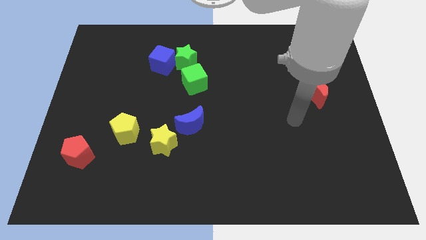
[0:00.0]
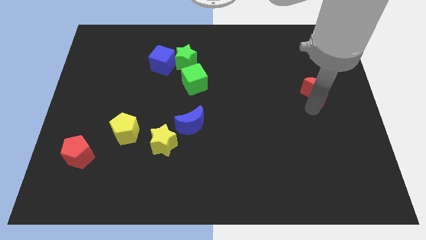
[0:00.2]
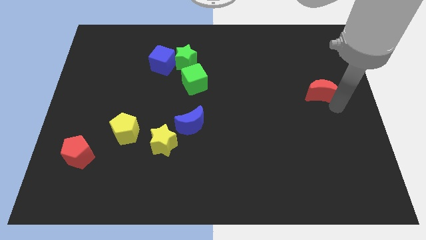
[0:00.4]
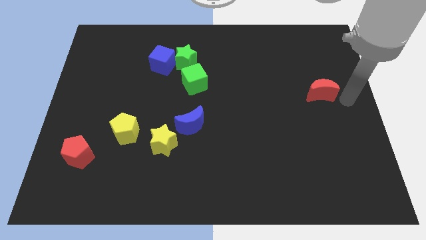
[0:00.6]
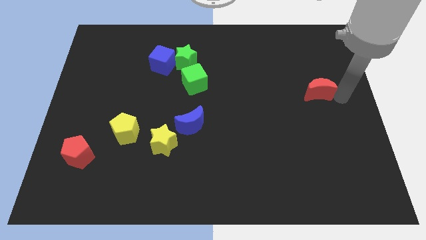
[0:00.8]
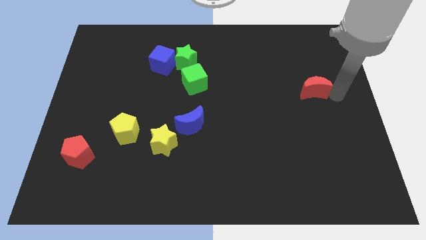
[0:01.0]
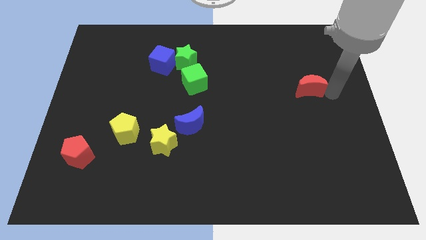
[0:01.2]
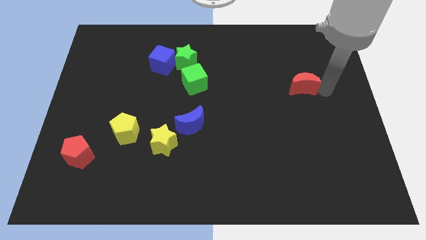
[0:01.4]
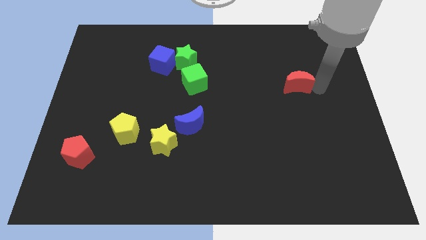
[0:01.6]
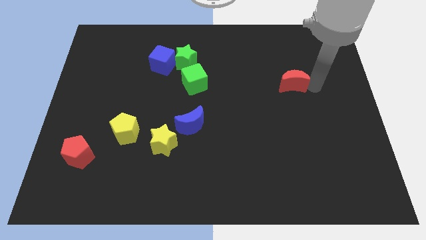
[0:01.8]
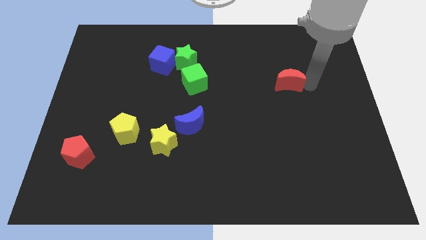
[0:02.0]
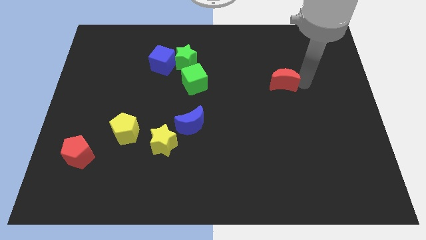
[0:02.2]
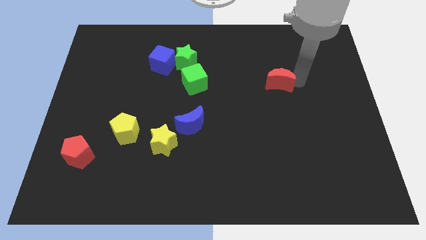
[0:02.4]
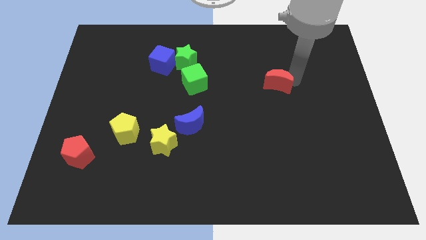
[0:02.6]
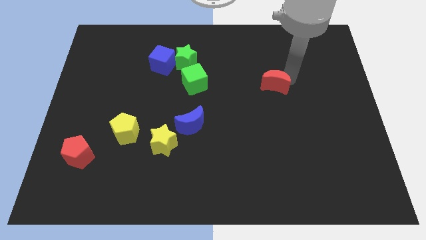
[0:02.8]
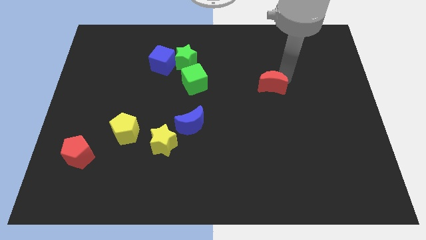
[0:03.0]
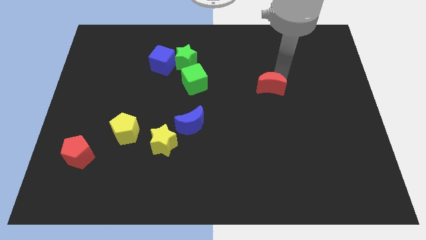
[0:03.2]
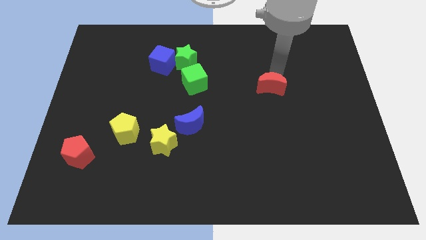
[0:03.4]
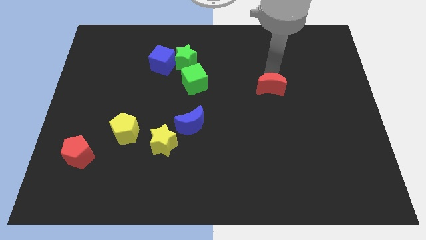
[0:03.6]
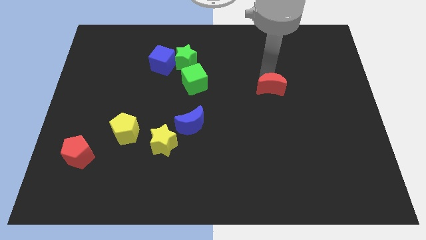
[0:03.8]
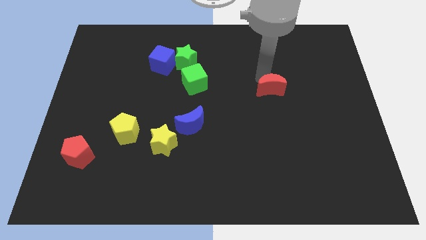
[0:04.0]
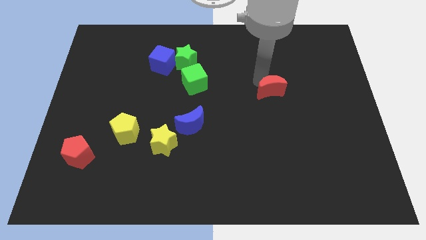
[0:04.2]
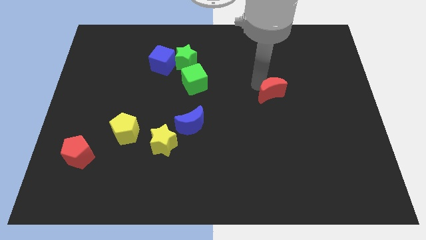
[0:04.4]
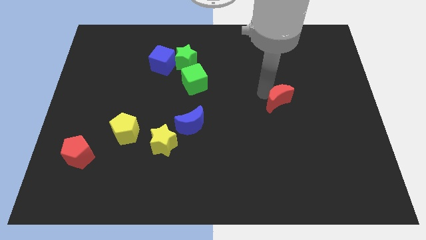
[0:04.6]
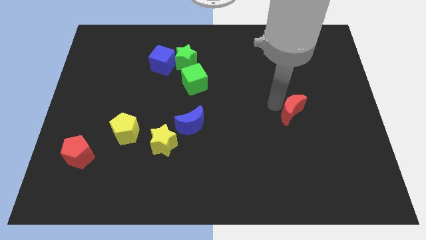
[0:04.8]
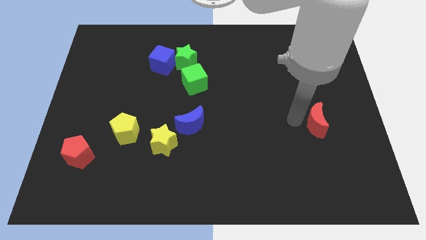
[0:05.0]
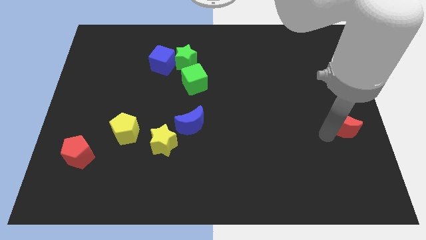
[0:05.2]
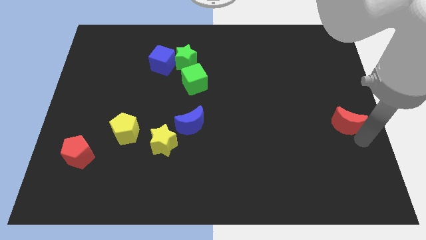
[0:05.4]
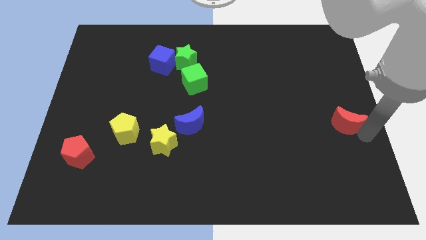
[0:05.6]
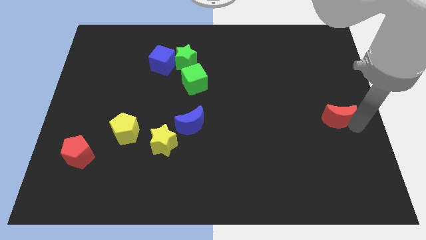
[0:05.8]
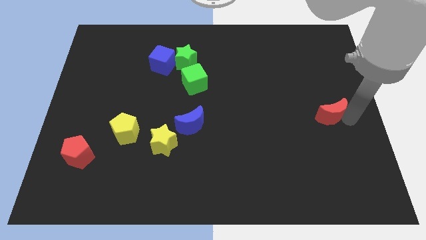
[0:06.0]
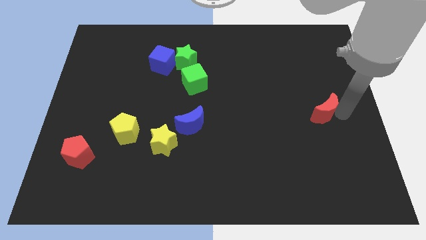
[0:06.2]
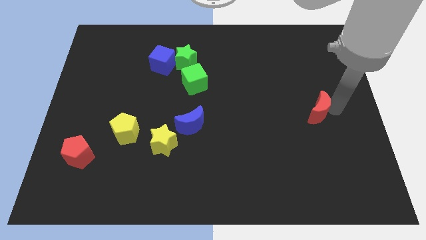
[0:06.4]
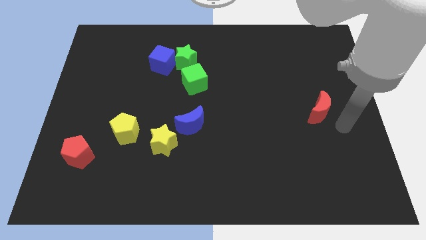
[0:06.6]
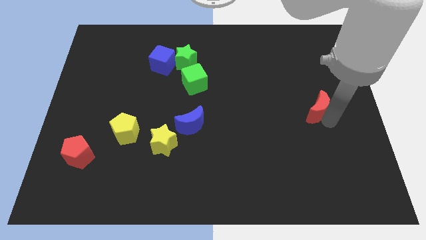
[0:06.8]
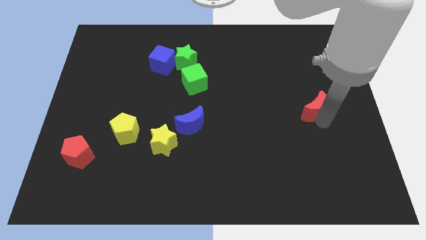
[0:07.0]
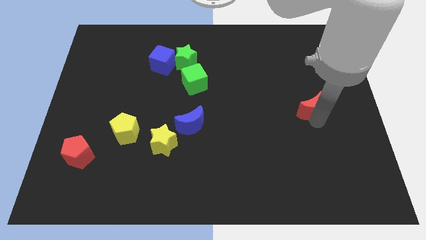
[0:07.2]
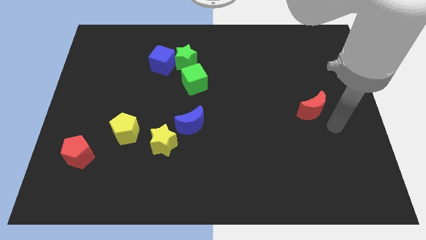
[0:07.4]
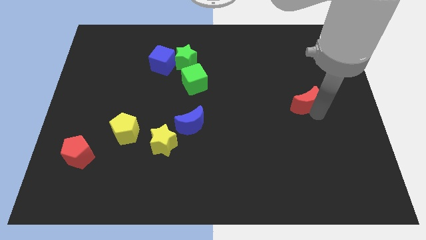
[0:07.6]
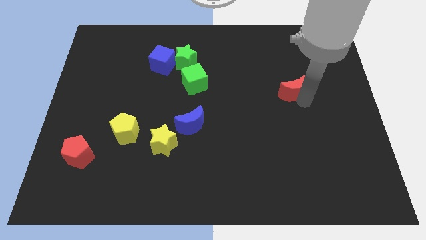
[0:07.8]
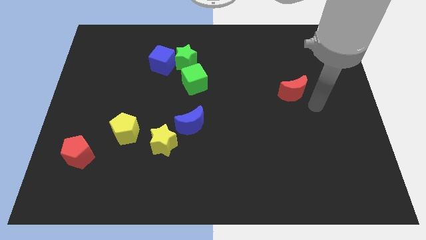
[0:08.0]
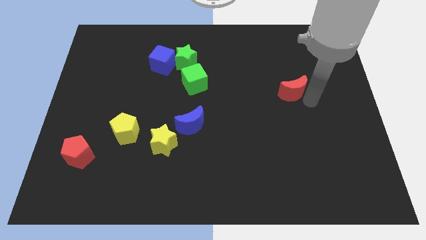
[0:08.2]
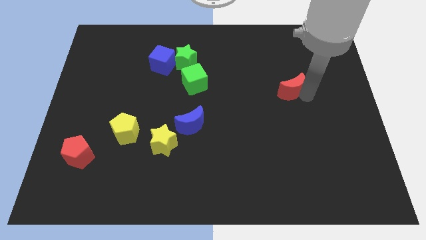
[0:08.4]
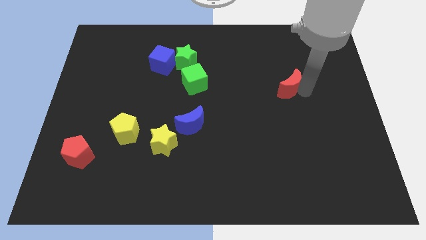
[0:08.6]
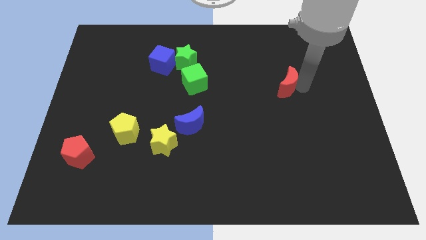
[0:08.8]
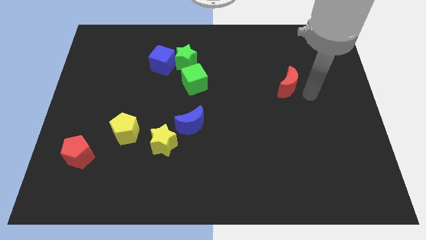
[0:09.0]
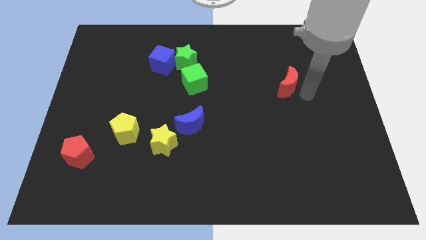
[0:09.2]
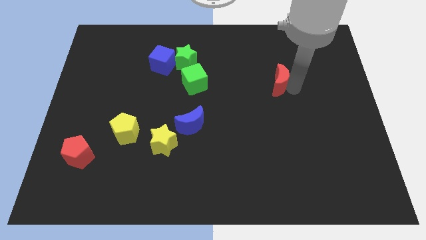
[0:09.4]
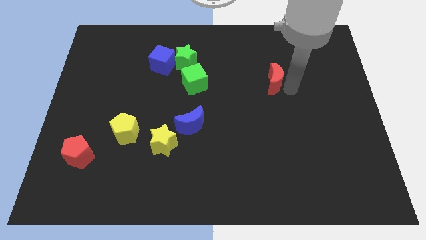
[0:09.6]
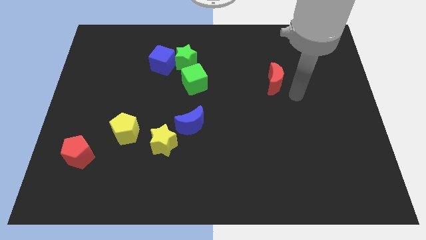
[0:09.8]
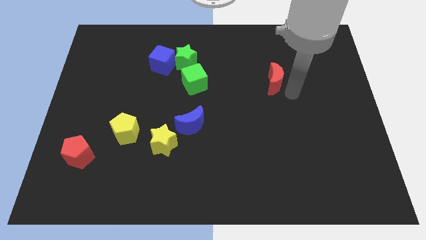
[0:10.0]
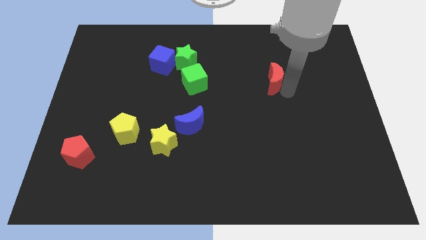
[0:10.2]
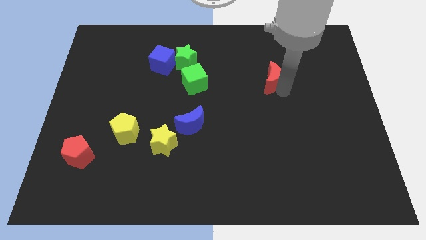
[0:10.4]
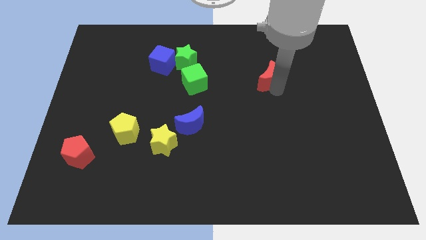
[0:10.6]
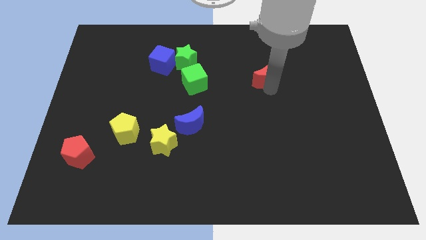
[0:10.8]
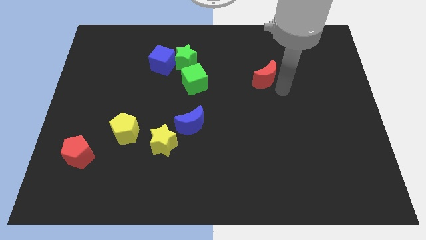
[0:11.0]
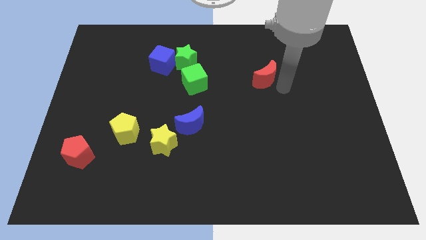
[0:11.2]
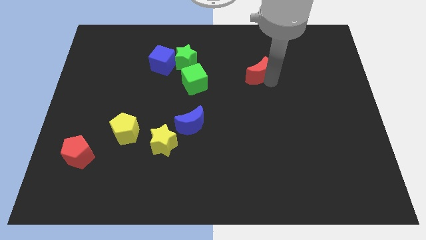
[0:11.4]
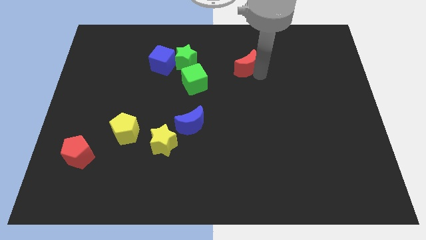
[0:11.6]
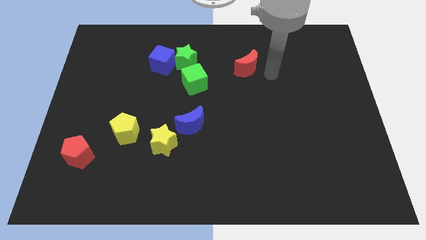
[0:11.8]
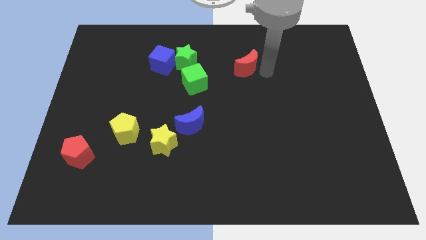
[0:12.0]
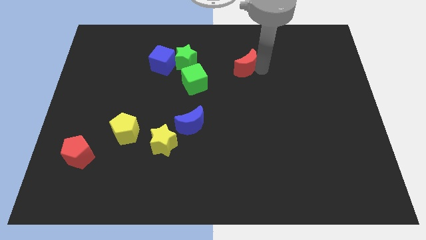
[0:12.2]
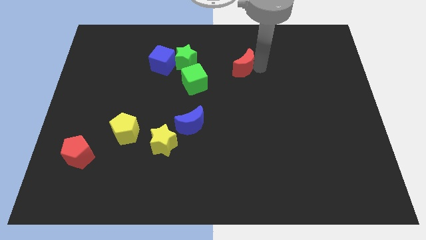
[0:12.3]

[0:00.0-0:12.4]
move the red moon just right of the green star

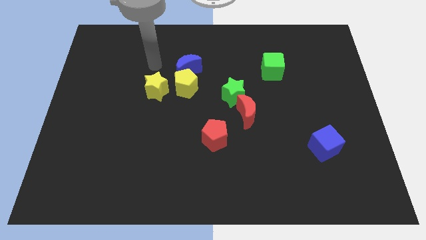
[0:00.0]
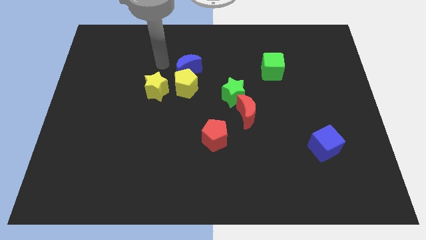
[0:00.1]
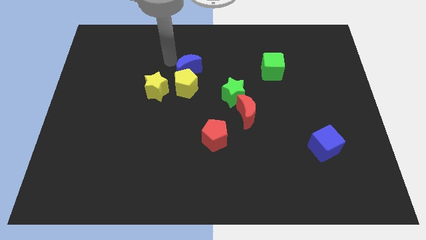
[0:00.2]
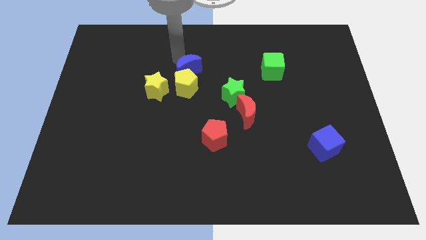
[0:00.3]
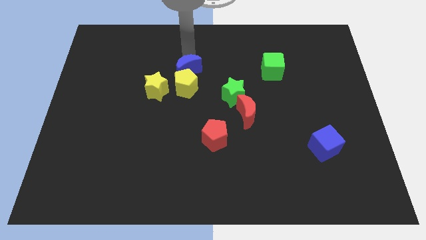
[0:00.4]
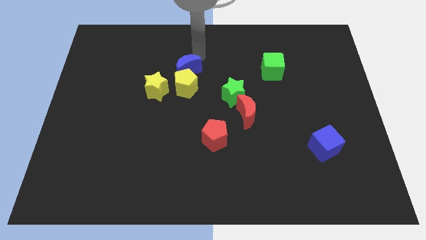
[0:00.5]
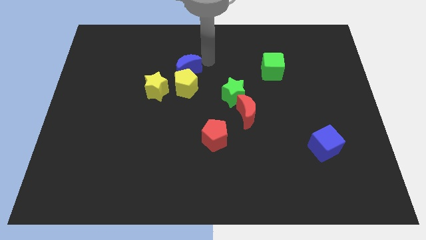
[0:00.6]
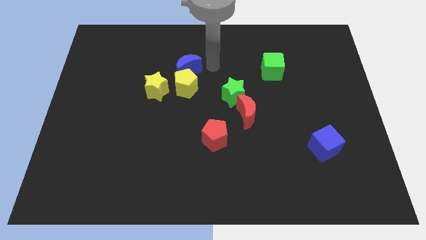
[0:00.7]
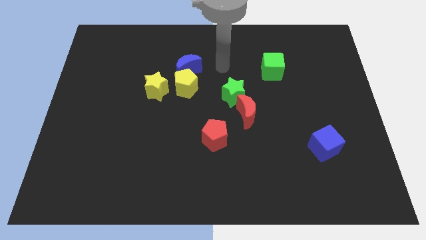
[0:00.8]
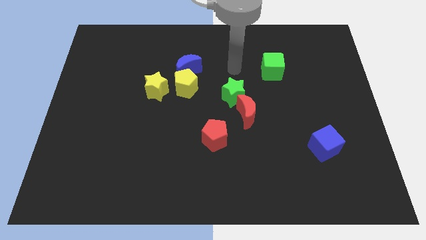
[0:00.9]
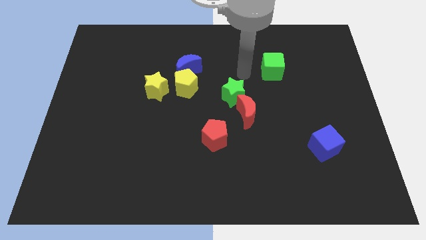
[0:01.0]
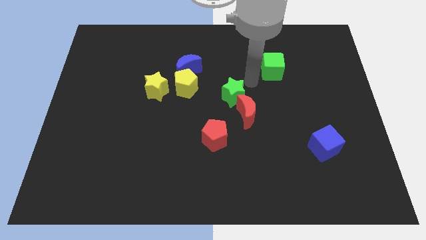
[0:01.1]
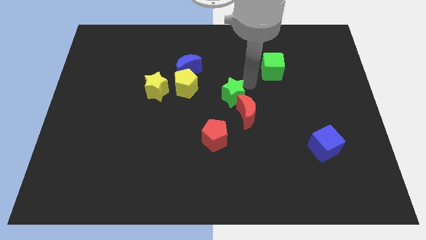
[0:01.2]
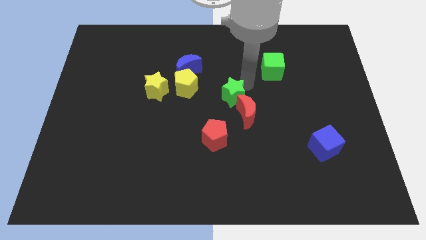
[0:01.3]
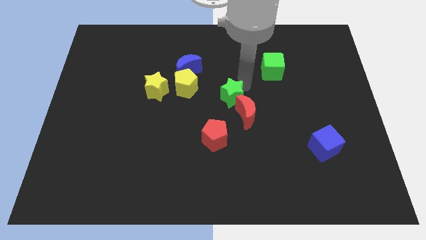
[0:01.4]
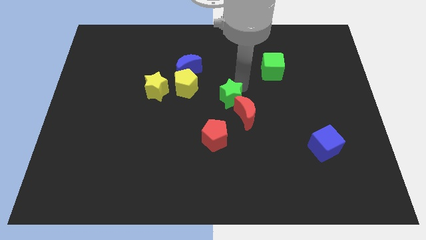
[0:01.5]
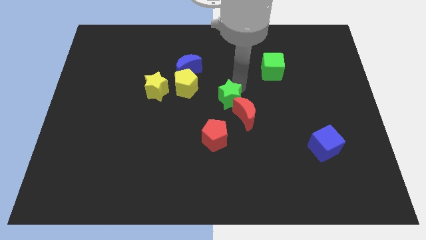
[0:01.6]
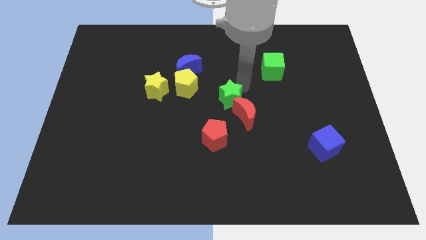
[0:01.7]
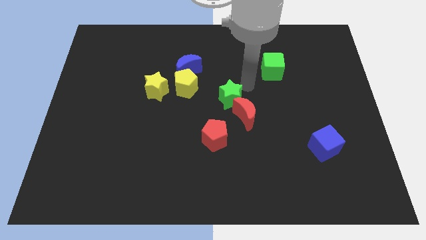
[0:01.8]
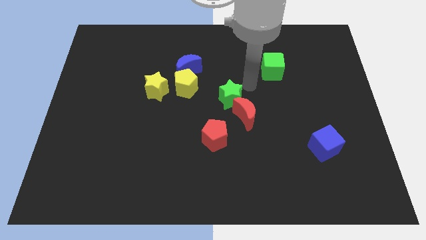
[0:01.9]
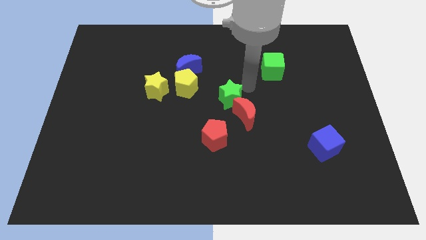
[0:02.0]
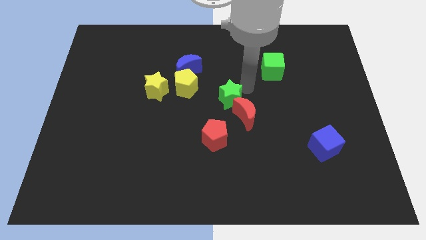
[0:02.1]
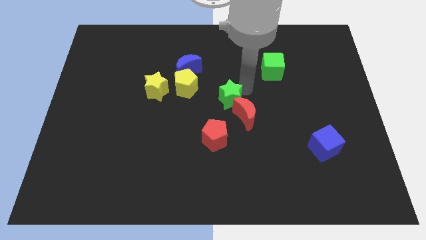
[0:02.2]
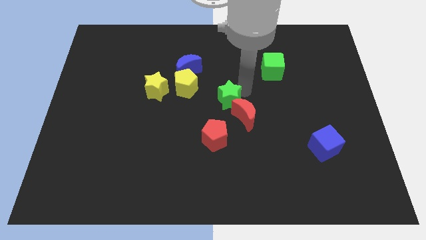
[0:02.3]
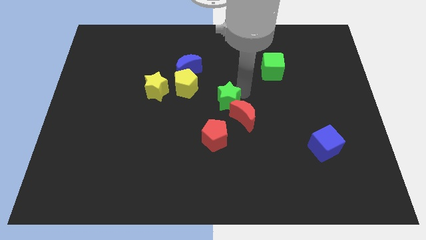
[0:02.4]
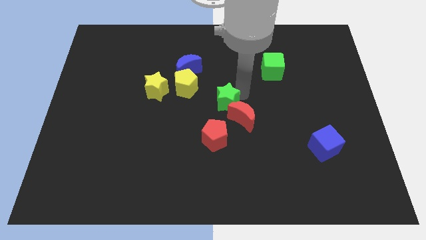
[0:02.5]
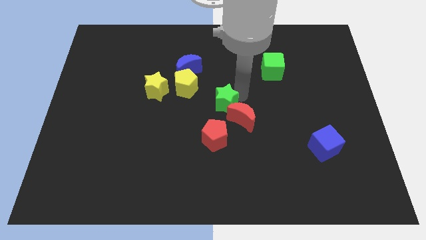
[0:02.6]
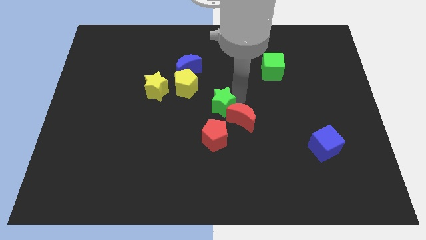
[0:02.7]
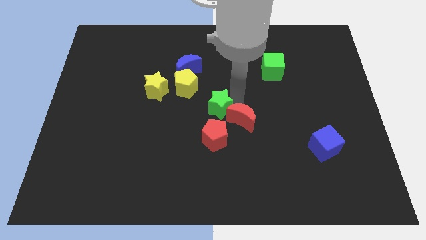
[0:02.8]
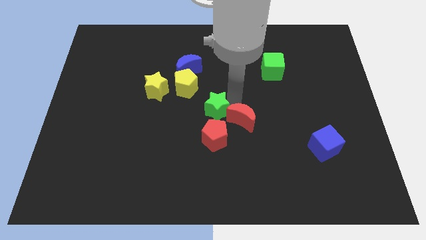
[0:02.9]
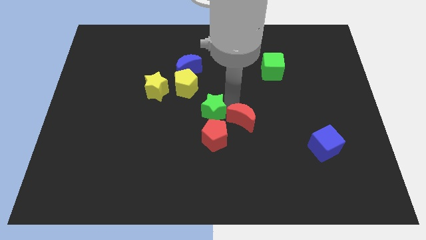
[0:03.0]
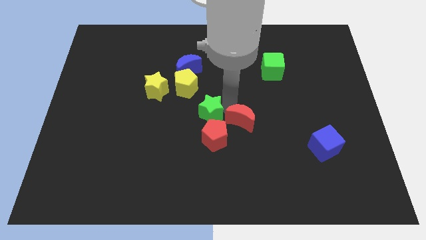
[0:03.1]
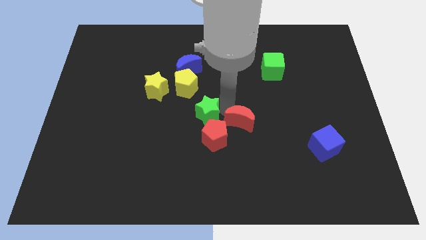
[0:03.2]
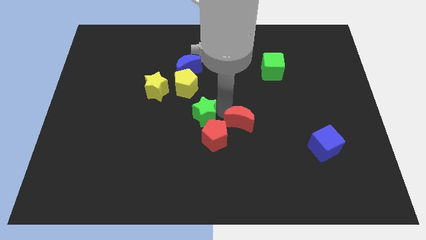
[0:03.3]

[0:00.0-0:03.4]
put the green star below the yellow pentagon
